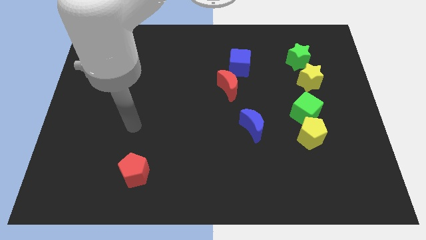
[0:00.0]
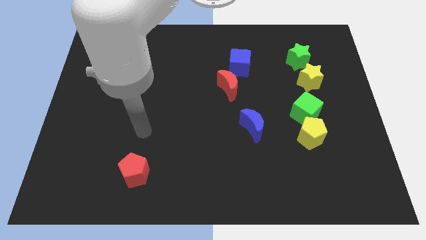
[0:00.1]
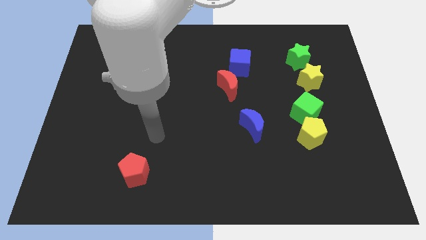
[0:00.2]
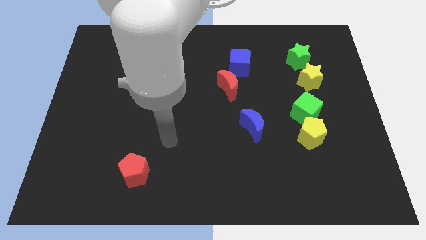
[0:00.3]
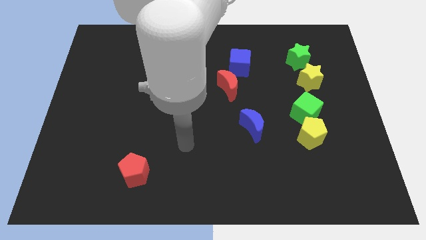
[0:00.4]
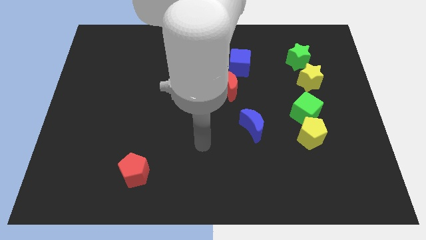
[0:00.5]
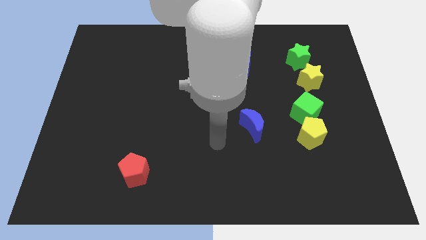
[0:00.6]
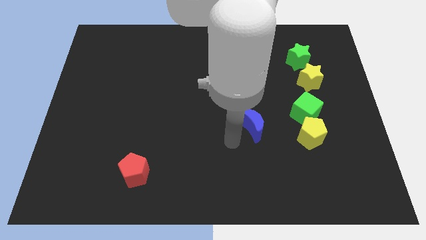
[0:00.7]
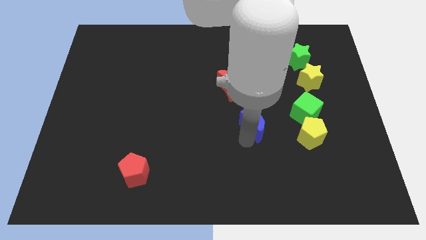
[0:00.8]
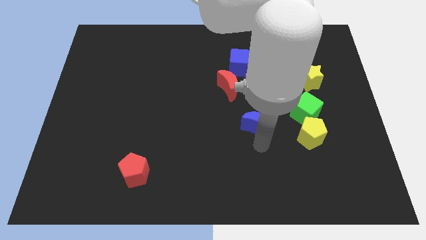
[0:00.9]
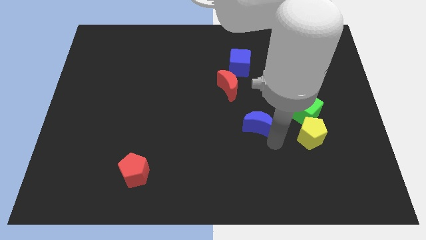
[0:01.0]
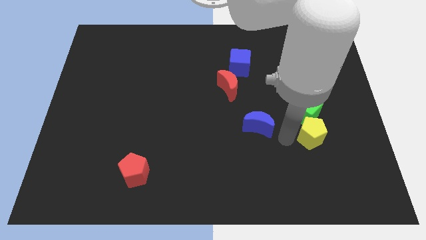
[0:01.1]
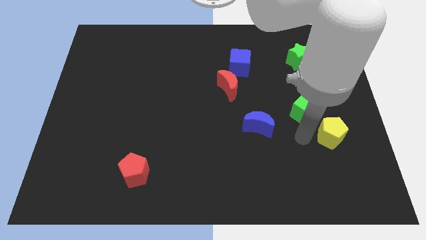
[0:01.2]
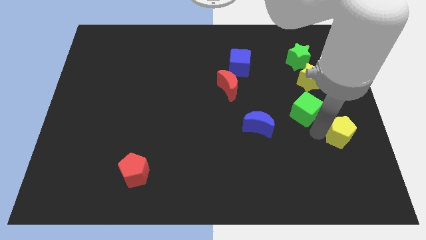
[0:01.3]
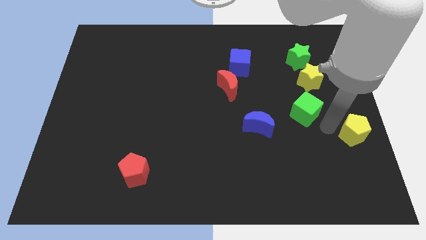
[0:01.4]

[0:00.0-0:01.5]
move the green cube away from the yellow pentagon

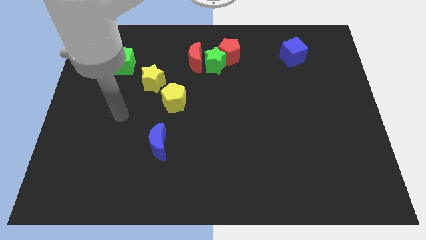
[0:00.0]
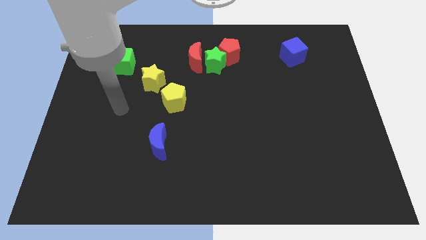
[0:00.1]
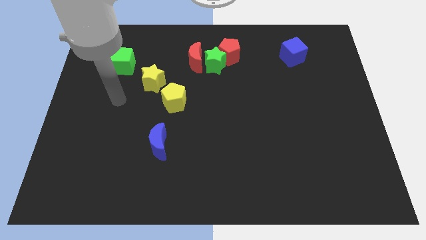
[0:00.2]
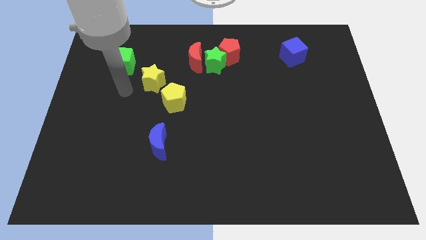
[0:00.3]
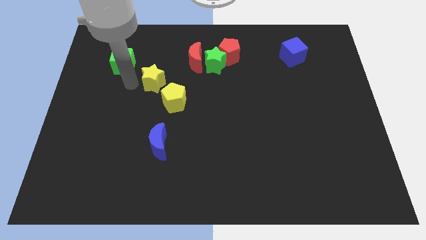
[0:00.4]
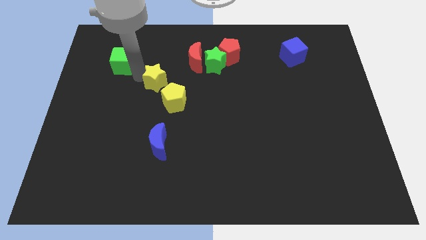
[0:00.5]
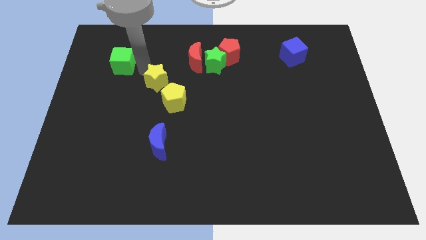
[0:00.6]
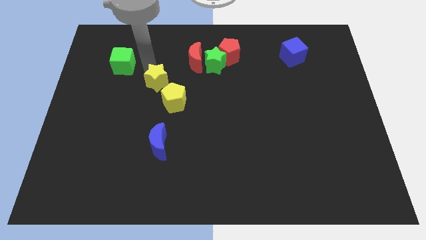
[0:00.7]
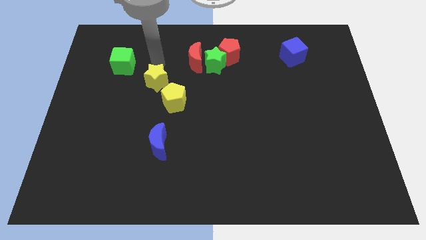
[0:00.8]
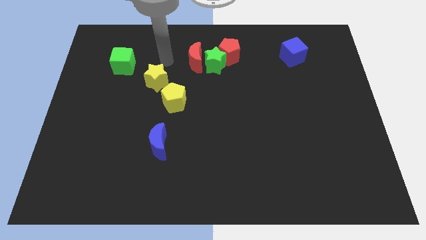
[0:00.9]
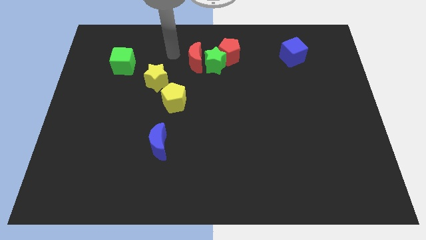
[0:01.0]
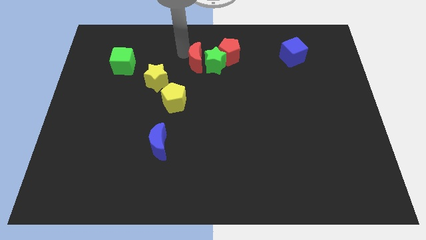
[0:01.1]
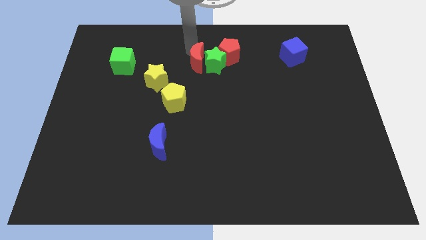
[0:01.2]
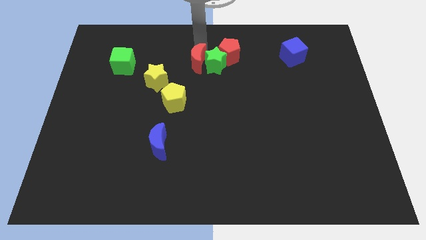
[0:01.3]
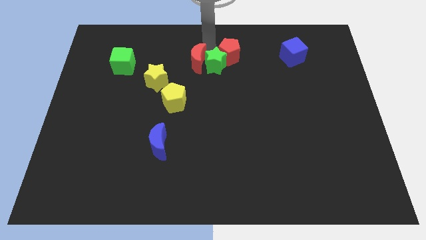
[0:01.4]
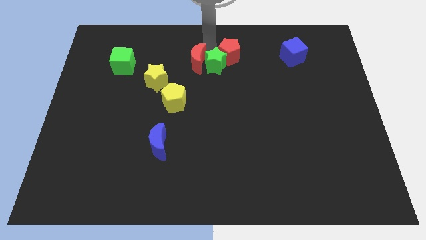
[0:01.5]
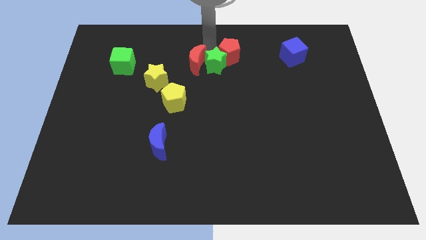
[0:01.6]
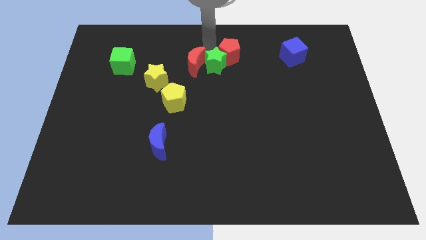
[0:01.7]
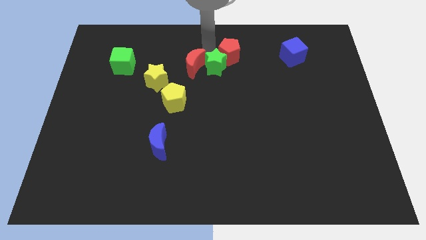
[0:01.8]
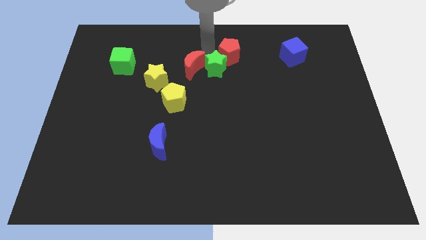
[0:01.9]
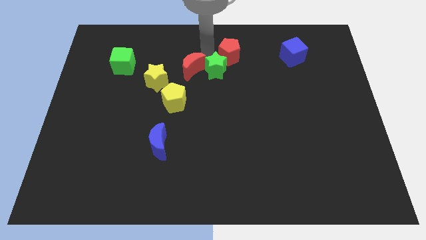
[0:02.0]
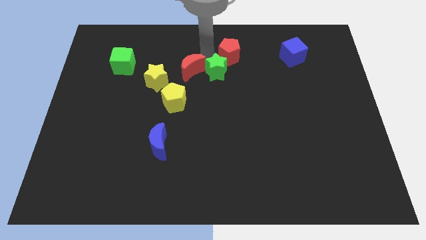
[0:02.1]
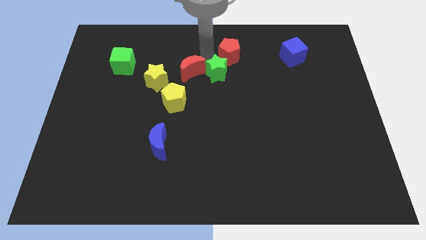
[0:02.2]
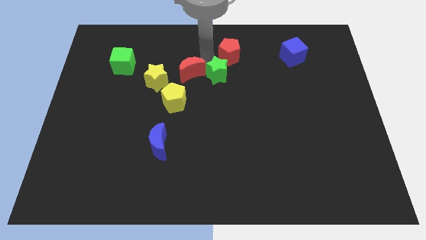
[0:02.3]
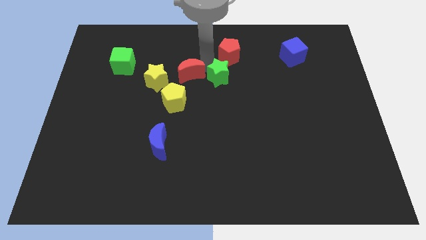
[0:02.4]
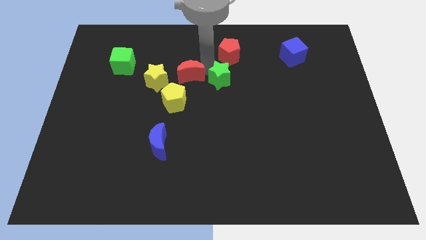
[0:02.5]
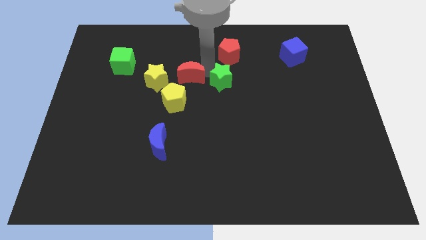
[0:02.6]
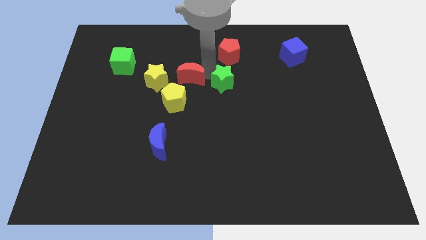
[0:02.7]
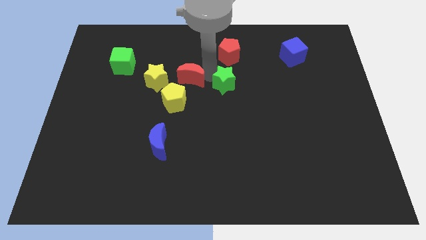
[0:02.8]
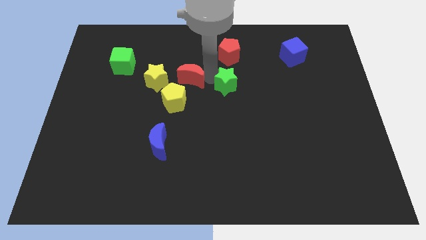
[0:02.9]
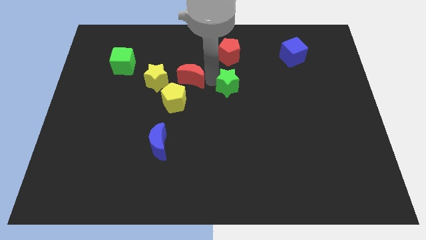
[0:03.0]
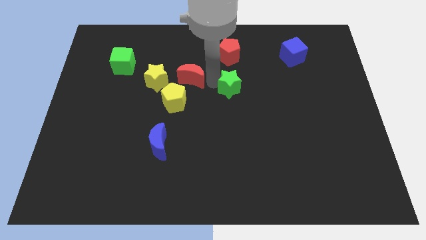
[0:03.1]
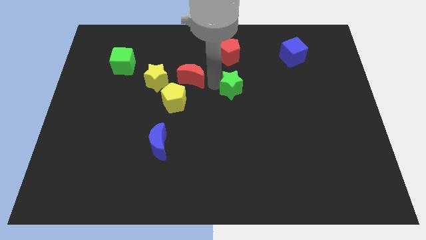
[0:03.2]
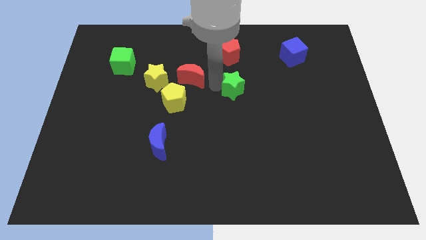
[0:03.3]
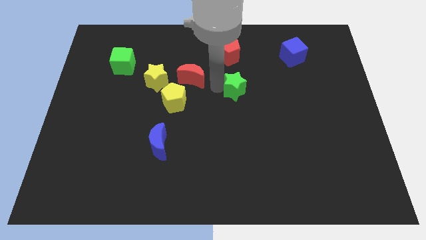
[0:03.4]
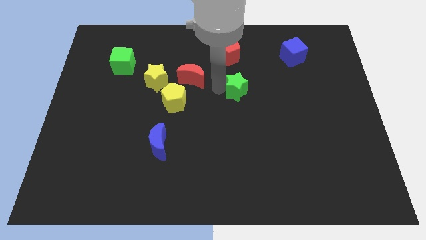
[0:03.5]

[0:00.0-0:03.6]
pull the green star apart from the red moon and red pentagon

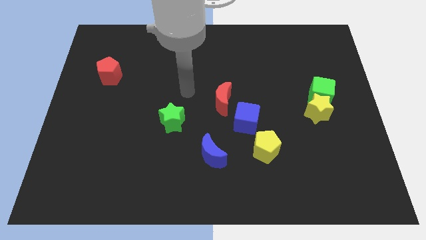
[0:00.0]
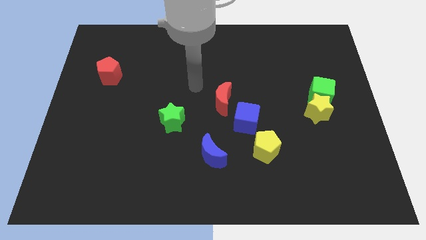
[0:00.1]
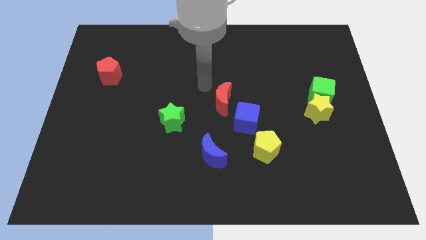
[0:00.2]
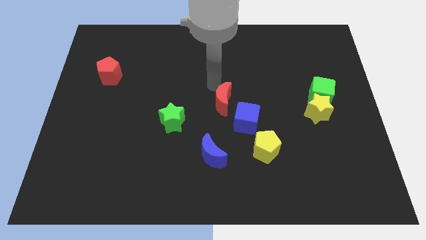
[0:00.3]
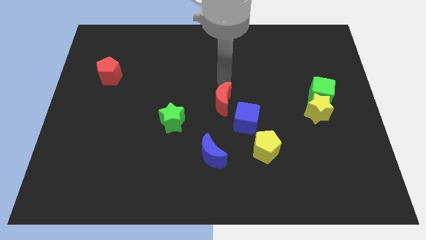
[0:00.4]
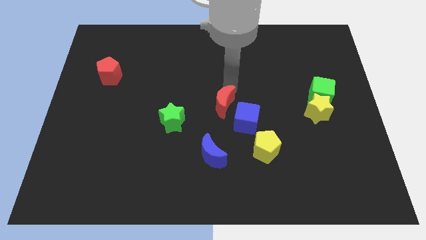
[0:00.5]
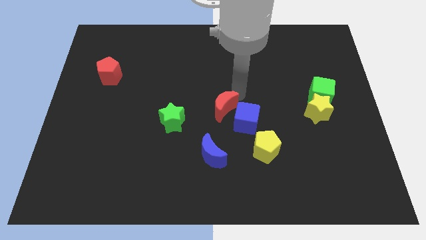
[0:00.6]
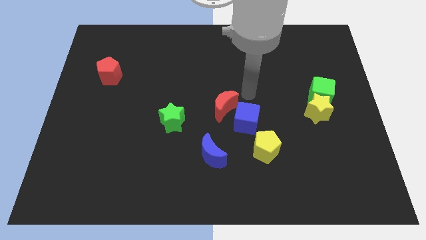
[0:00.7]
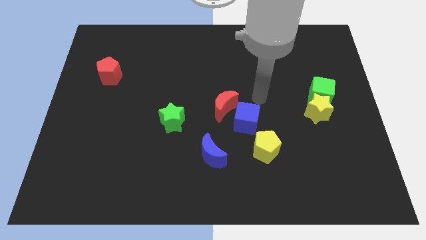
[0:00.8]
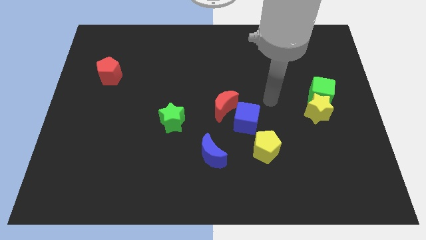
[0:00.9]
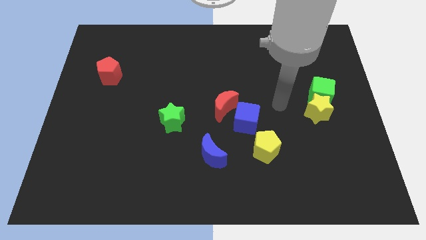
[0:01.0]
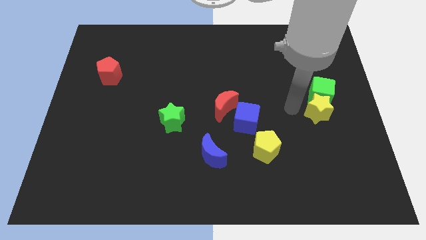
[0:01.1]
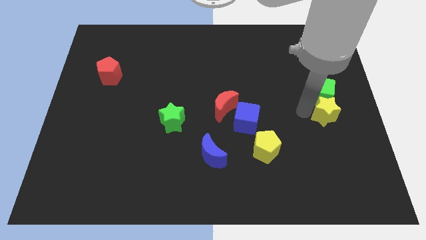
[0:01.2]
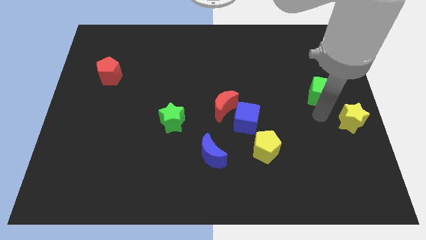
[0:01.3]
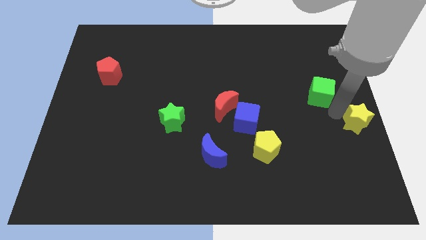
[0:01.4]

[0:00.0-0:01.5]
pull the green cube apart from the yellow star

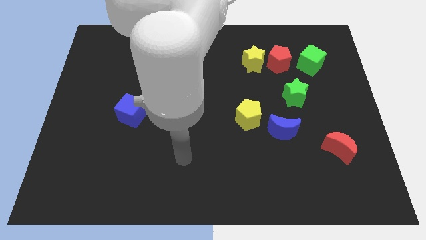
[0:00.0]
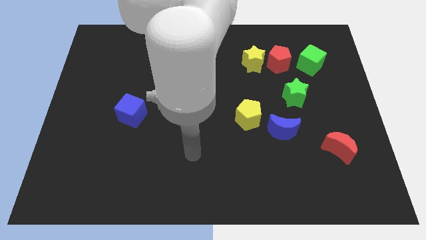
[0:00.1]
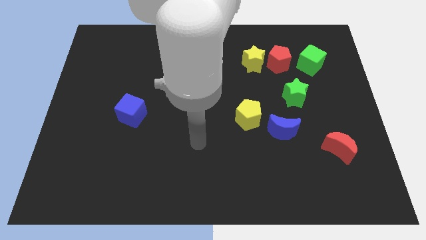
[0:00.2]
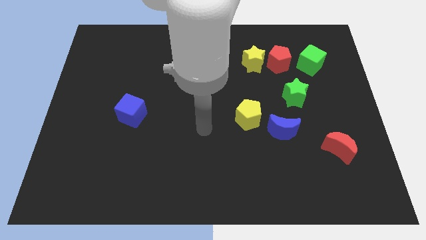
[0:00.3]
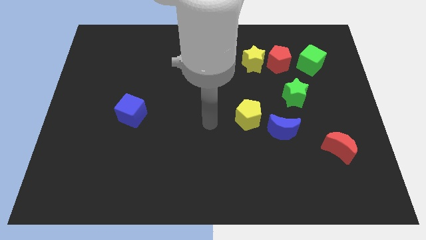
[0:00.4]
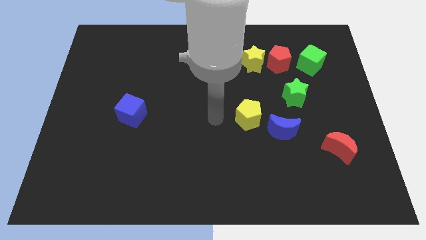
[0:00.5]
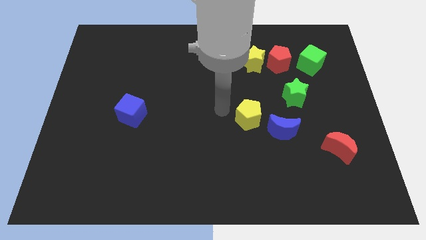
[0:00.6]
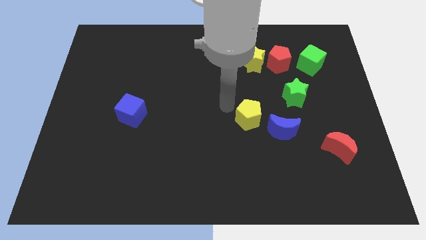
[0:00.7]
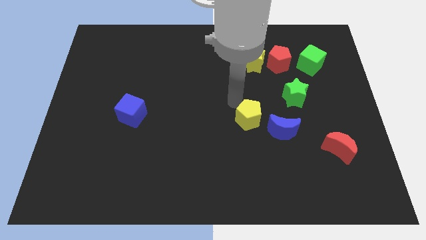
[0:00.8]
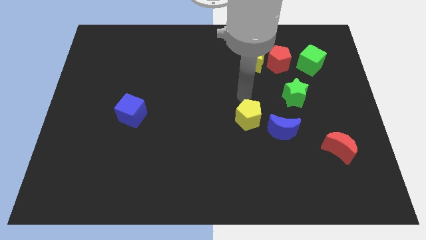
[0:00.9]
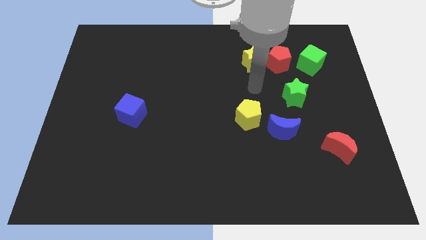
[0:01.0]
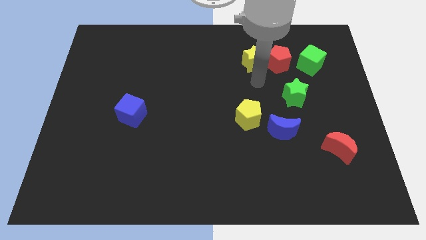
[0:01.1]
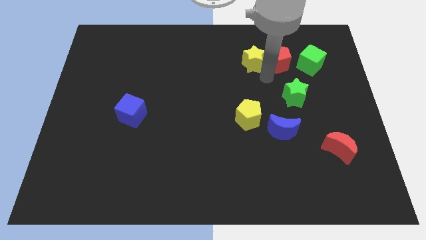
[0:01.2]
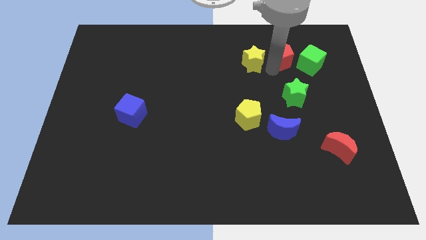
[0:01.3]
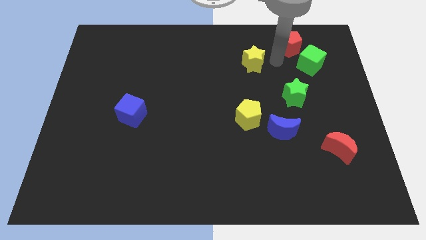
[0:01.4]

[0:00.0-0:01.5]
pull the yellow star apart from the red pentagon

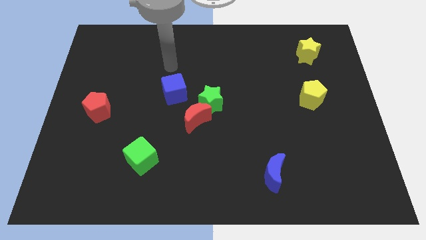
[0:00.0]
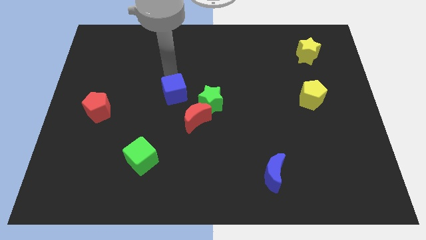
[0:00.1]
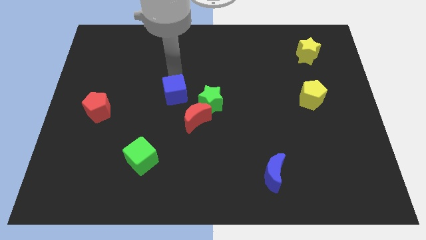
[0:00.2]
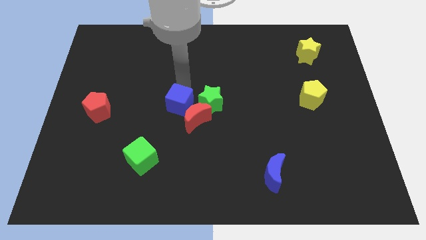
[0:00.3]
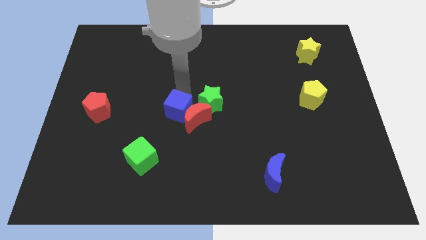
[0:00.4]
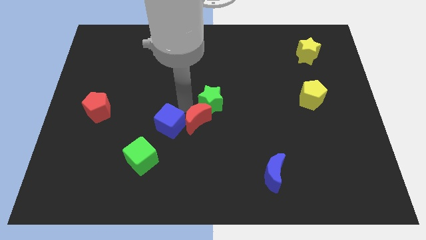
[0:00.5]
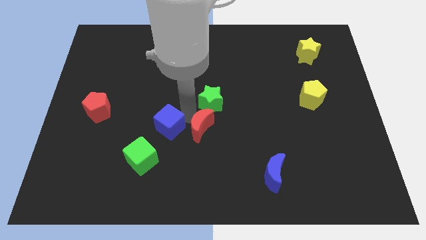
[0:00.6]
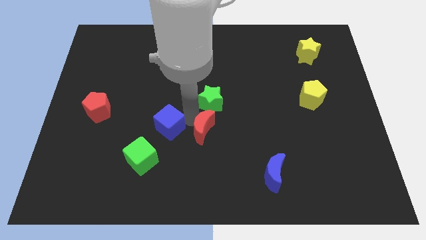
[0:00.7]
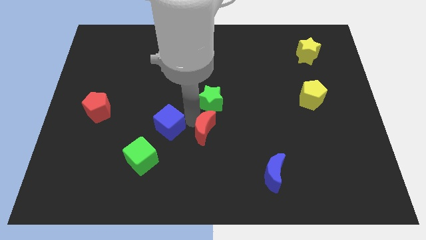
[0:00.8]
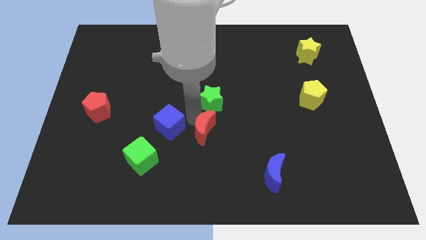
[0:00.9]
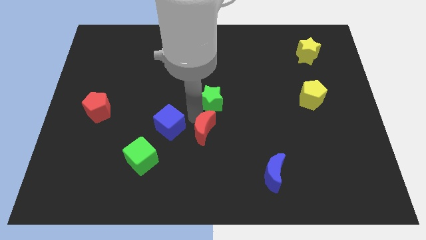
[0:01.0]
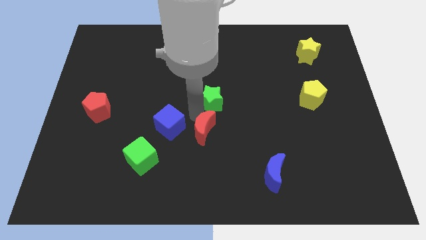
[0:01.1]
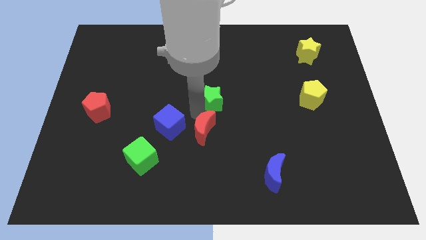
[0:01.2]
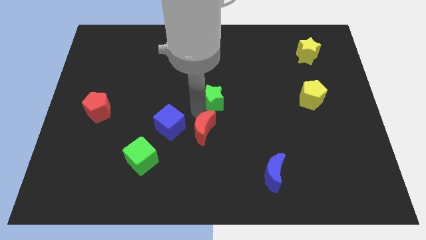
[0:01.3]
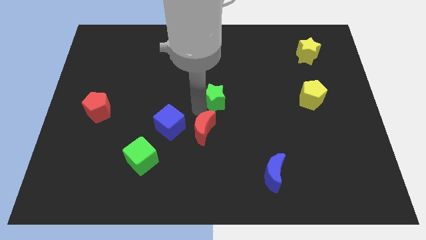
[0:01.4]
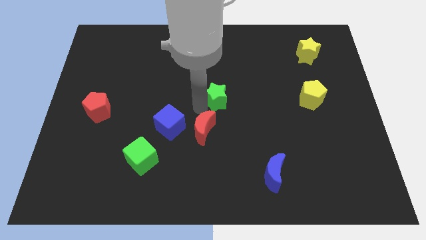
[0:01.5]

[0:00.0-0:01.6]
separate the green star from the red moon and blue cube
